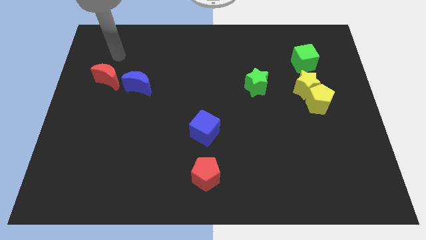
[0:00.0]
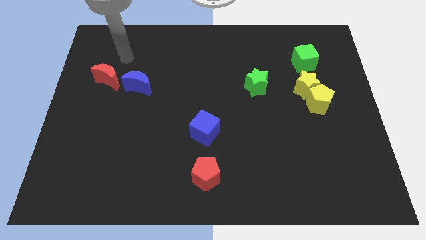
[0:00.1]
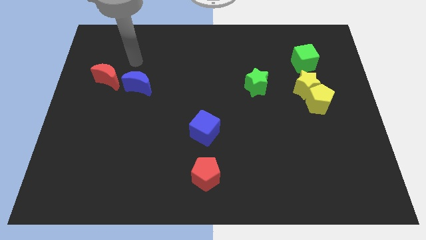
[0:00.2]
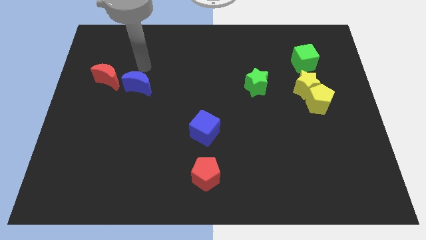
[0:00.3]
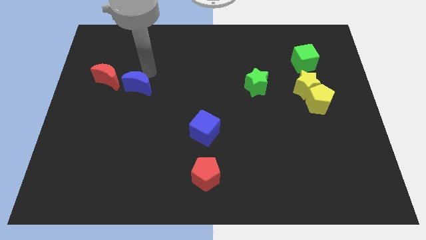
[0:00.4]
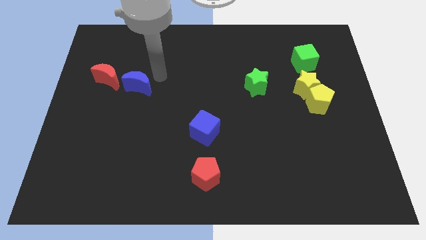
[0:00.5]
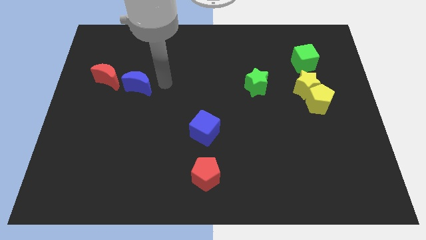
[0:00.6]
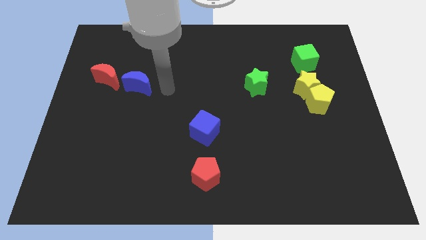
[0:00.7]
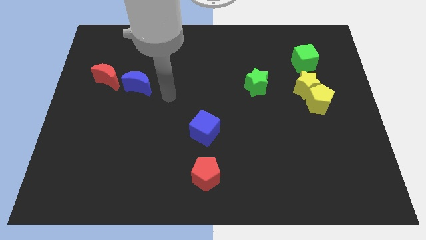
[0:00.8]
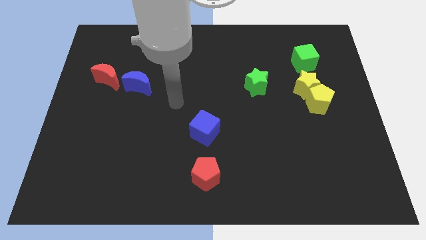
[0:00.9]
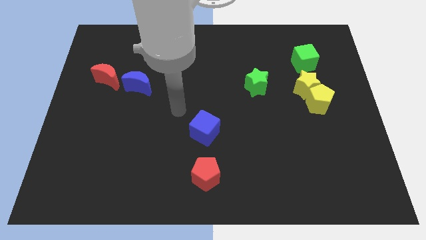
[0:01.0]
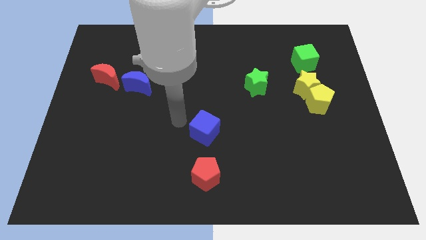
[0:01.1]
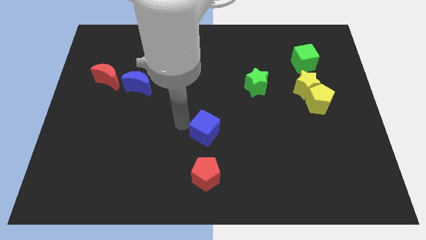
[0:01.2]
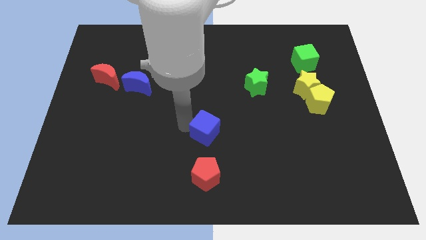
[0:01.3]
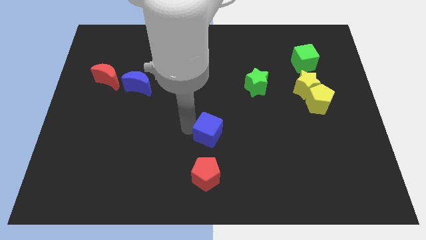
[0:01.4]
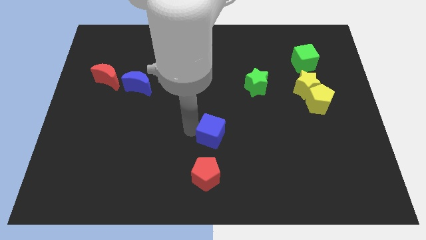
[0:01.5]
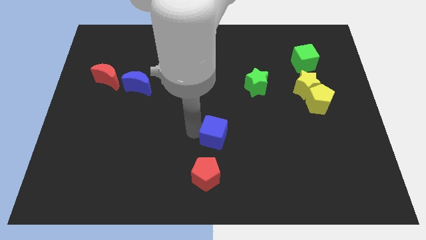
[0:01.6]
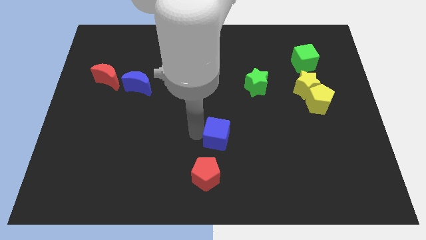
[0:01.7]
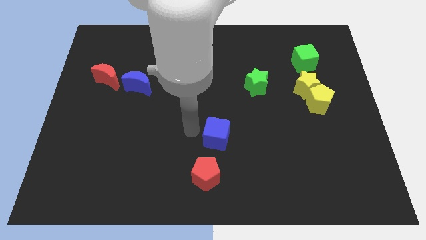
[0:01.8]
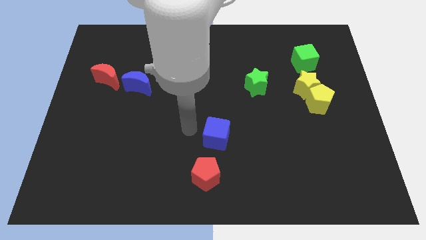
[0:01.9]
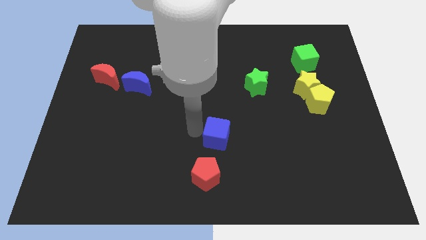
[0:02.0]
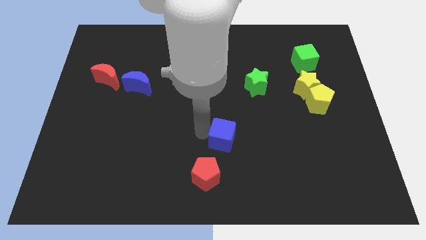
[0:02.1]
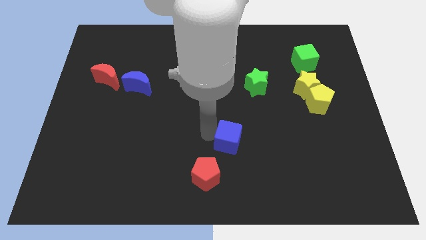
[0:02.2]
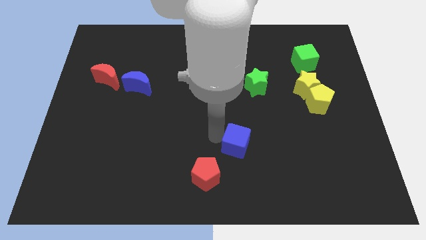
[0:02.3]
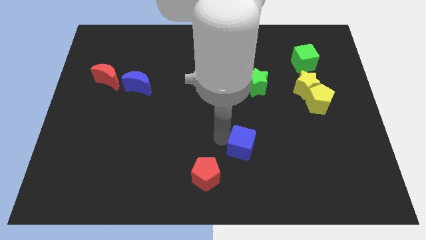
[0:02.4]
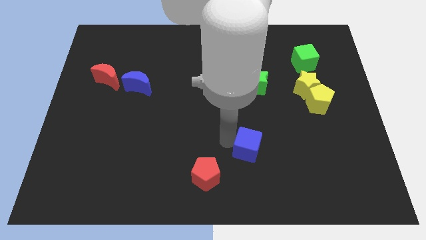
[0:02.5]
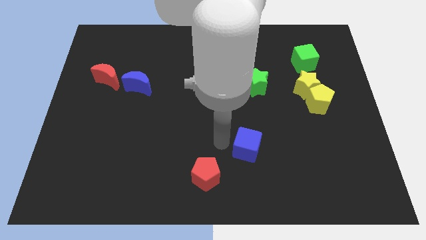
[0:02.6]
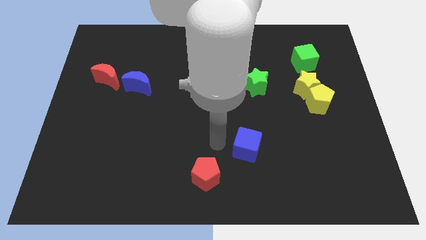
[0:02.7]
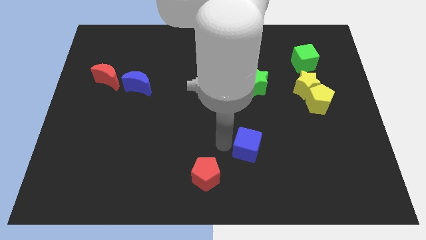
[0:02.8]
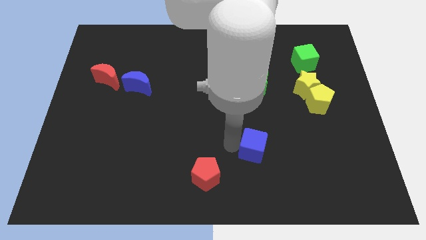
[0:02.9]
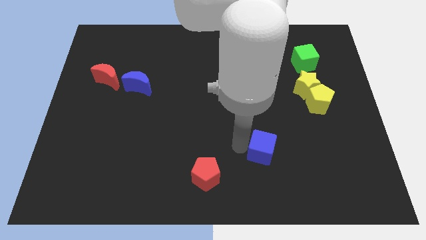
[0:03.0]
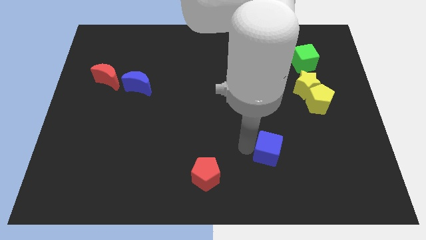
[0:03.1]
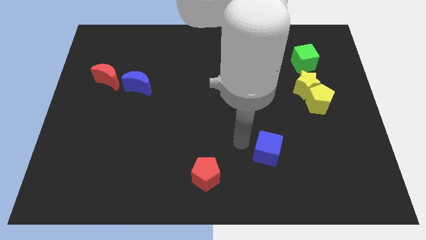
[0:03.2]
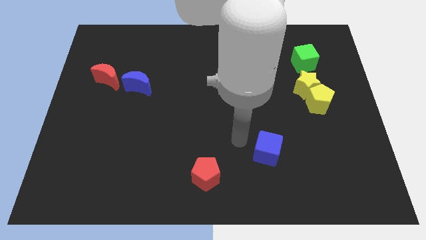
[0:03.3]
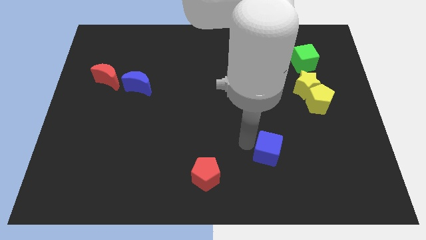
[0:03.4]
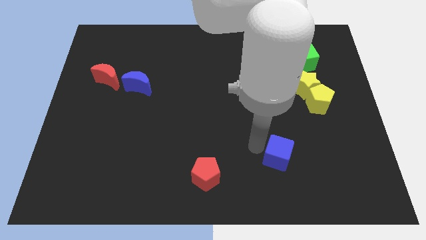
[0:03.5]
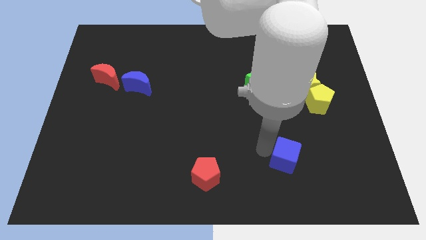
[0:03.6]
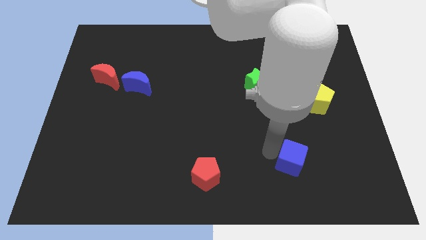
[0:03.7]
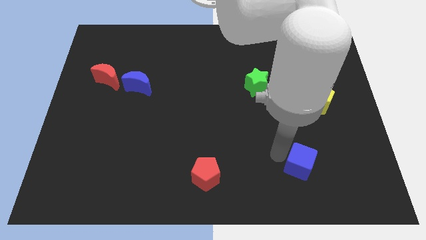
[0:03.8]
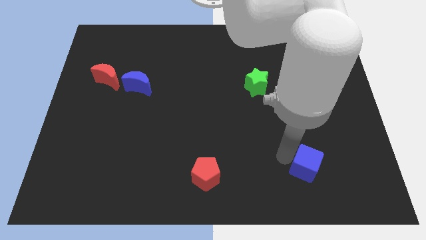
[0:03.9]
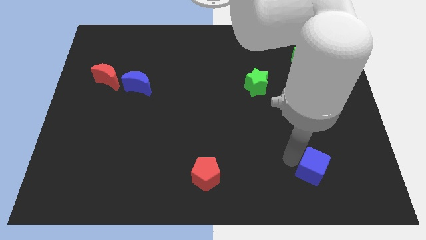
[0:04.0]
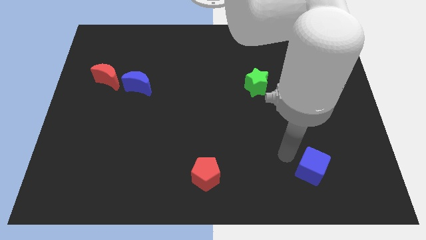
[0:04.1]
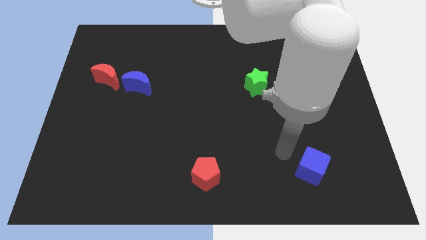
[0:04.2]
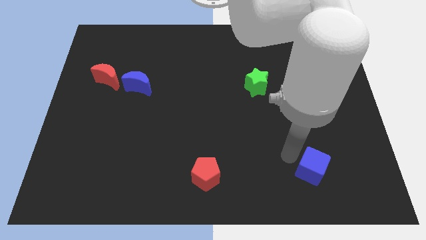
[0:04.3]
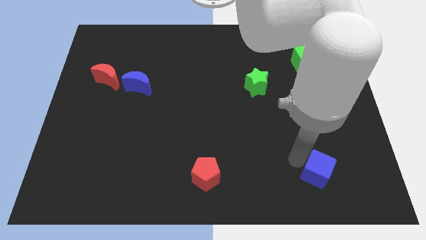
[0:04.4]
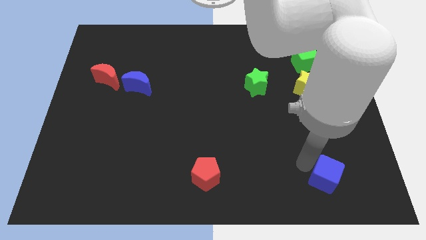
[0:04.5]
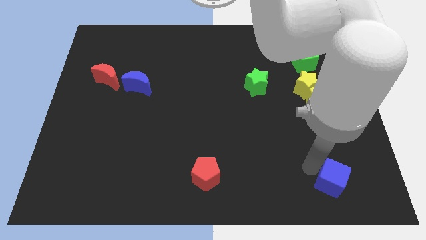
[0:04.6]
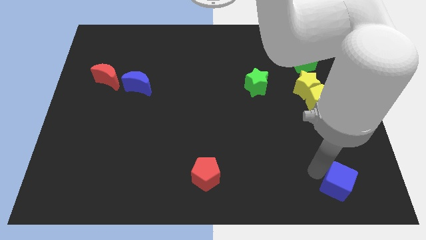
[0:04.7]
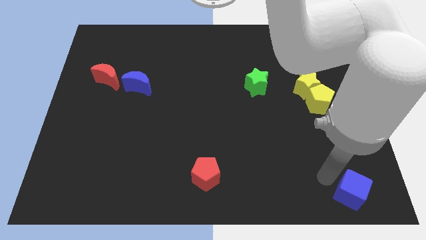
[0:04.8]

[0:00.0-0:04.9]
move the blue cube to the bottom right corner

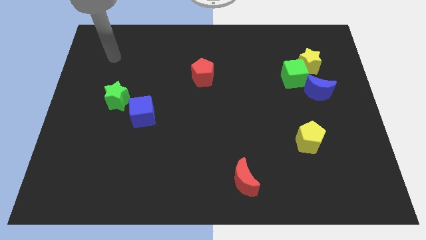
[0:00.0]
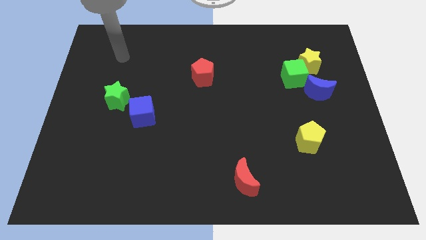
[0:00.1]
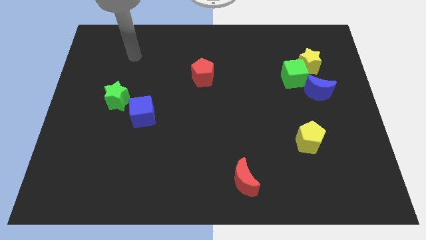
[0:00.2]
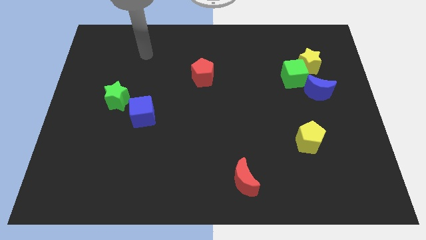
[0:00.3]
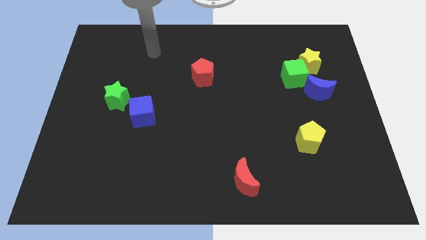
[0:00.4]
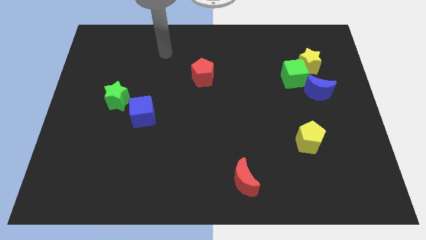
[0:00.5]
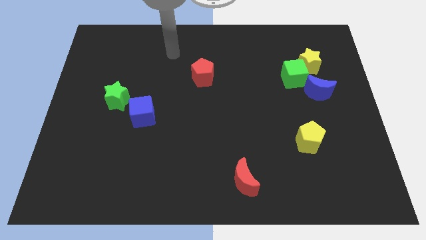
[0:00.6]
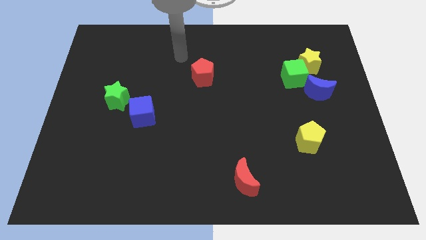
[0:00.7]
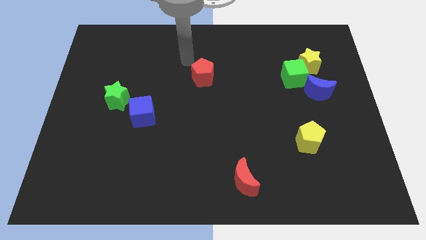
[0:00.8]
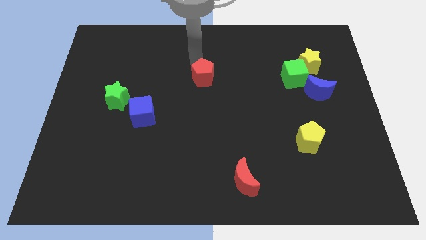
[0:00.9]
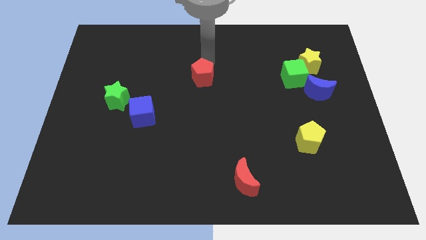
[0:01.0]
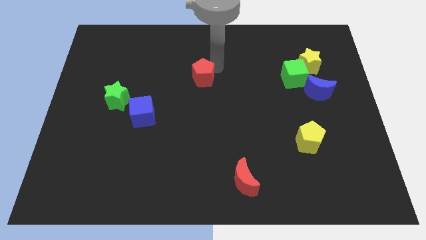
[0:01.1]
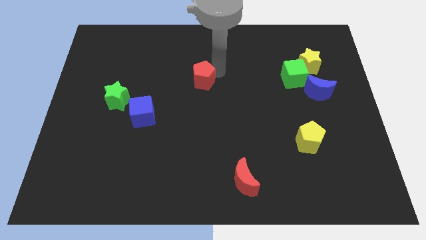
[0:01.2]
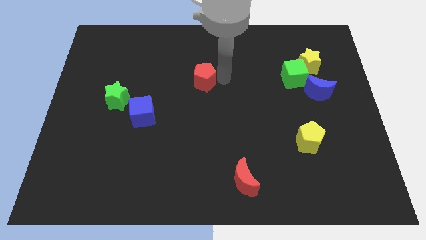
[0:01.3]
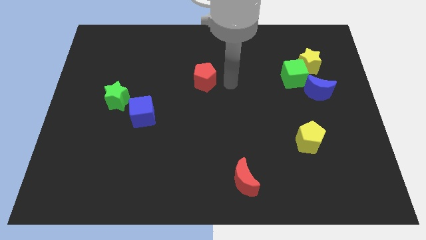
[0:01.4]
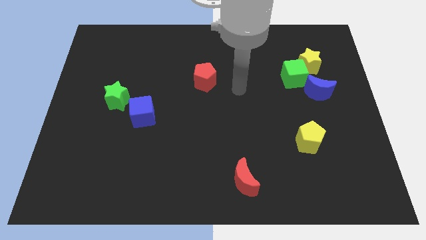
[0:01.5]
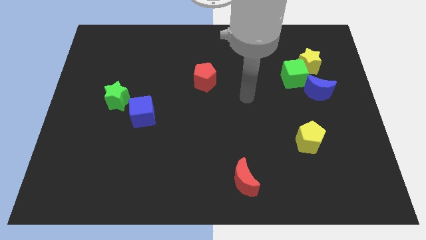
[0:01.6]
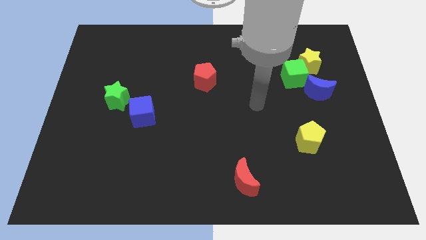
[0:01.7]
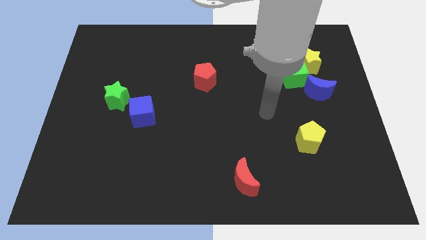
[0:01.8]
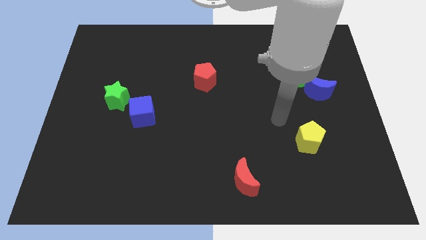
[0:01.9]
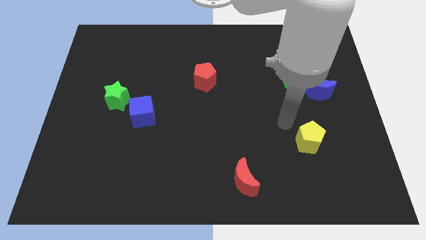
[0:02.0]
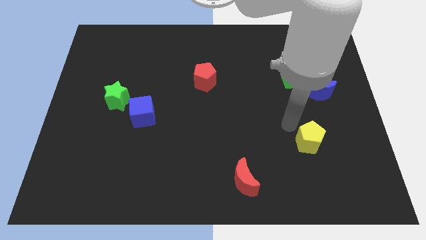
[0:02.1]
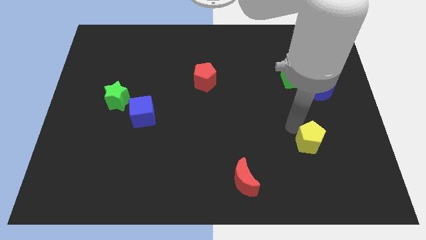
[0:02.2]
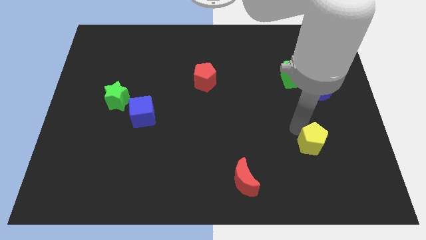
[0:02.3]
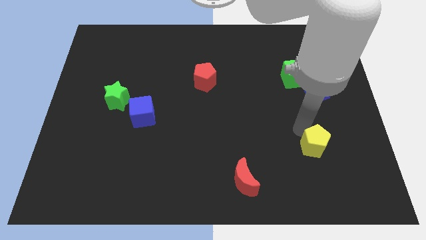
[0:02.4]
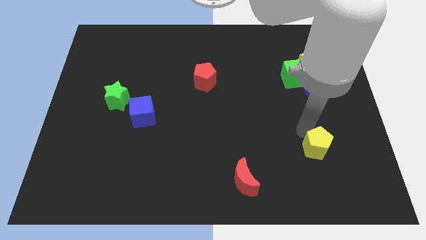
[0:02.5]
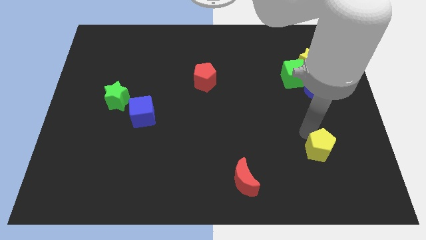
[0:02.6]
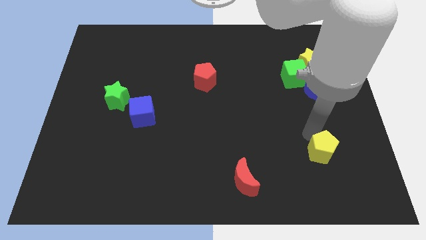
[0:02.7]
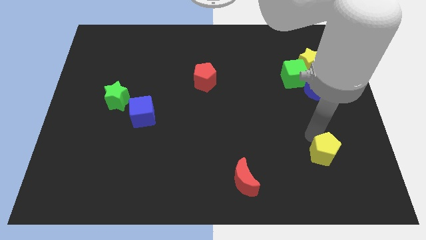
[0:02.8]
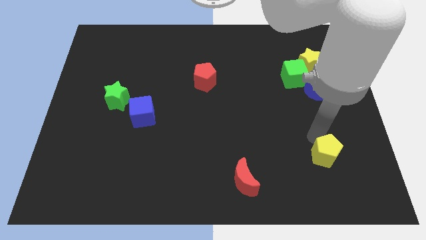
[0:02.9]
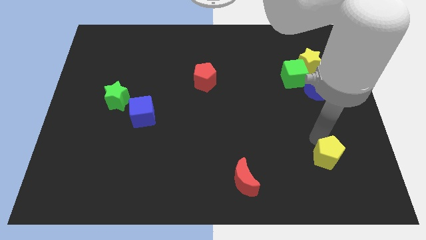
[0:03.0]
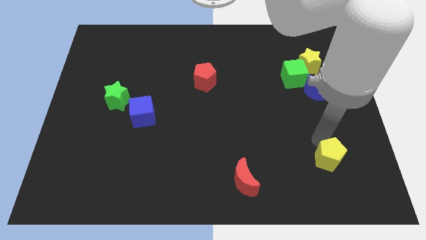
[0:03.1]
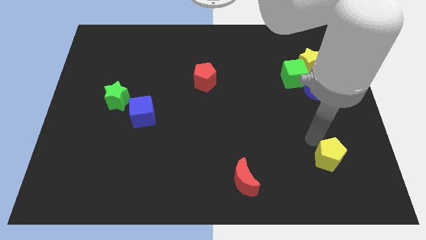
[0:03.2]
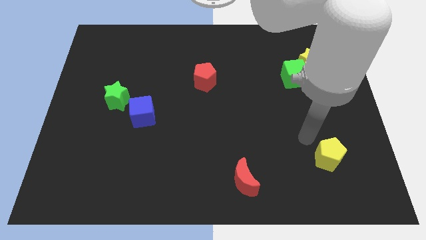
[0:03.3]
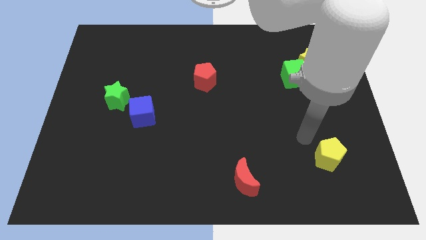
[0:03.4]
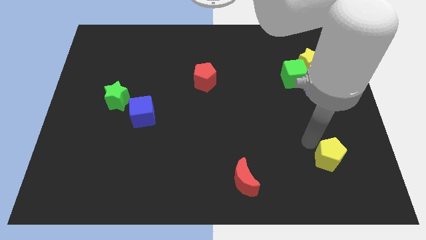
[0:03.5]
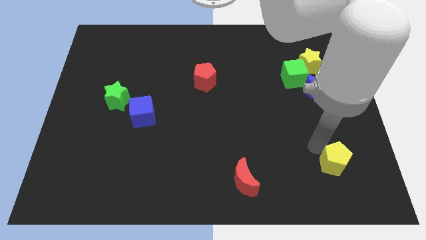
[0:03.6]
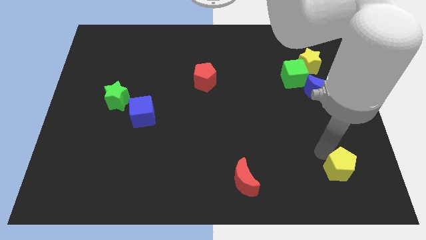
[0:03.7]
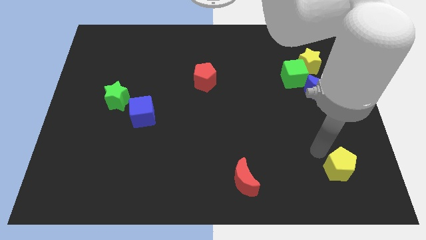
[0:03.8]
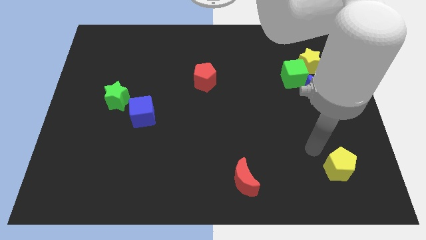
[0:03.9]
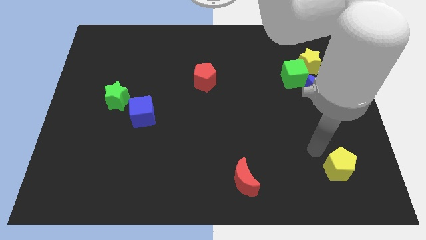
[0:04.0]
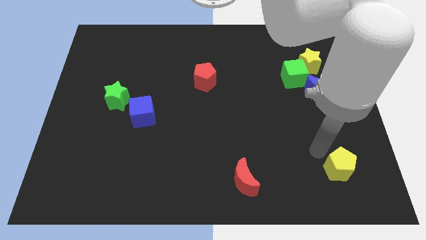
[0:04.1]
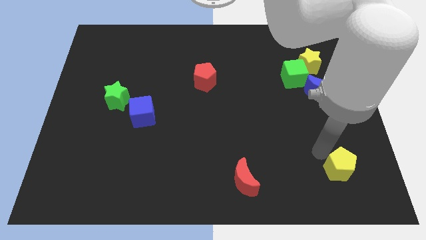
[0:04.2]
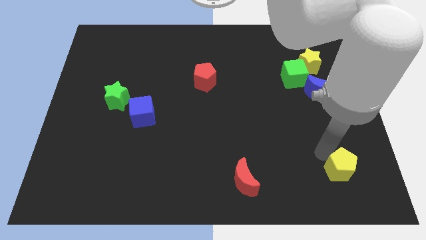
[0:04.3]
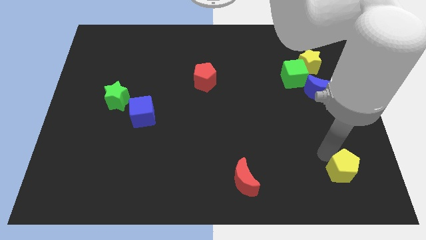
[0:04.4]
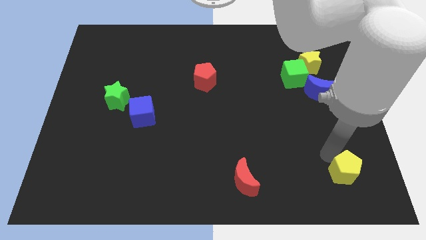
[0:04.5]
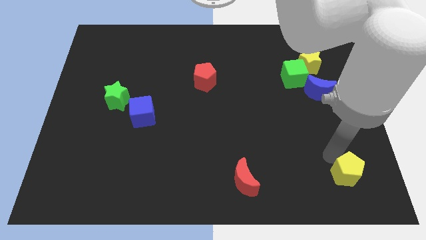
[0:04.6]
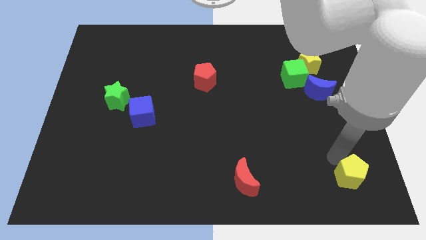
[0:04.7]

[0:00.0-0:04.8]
move the yellow pentagon to the bottom right corner
